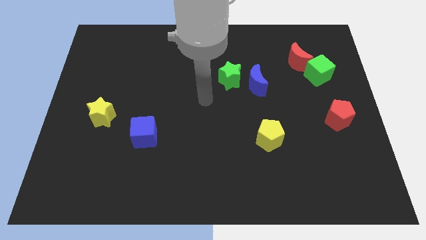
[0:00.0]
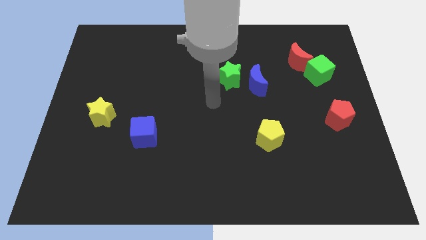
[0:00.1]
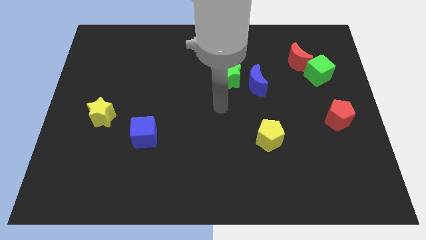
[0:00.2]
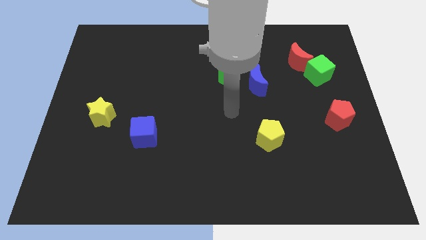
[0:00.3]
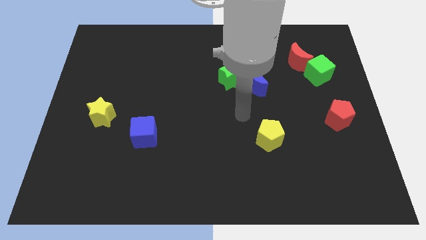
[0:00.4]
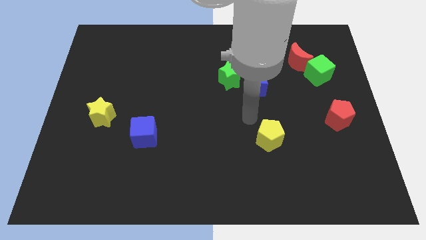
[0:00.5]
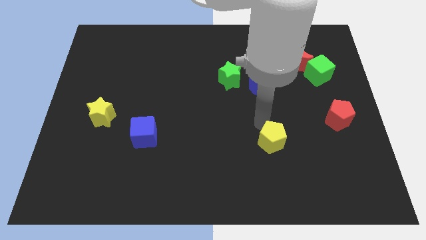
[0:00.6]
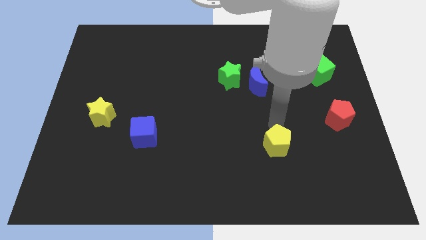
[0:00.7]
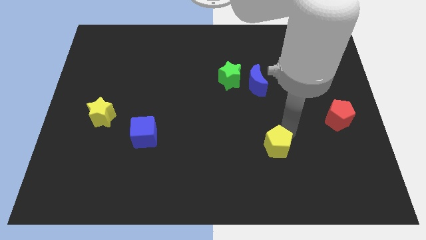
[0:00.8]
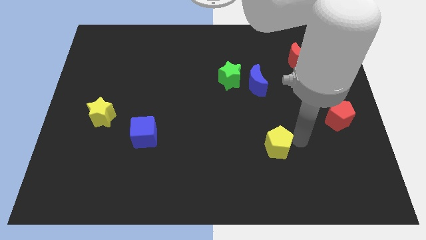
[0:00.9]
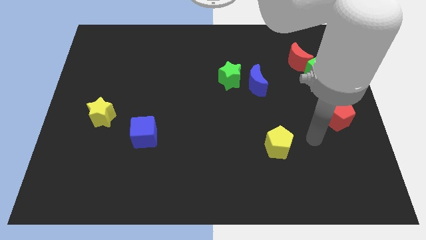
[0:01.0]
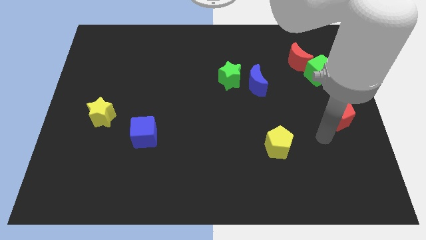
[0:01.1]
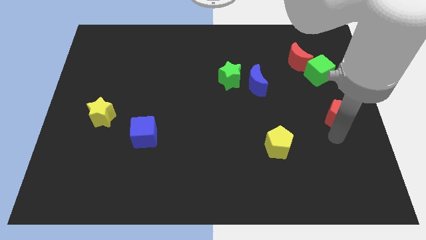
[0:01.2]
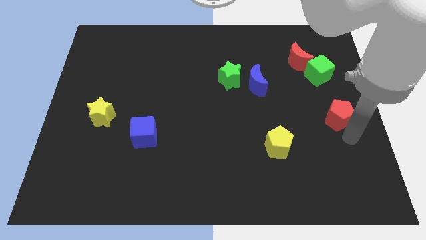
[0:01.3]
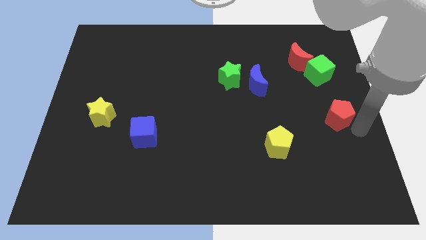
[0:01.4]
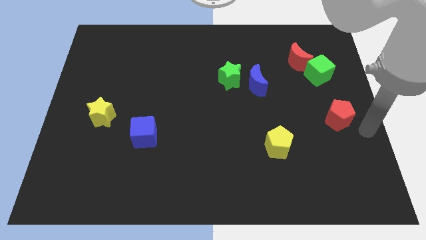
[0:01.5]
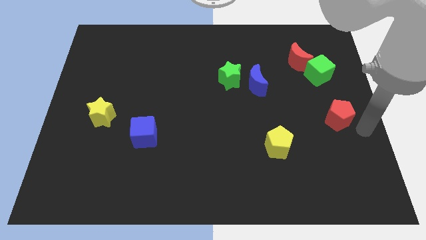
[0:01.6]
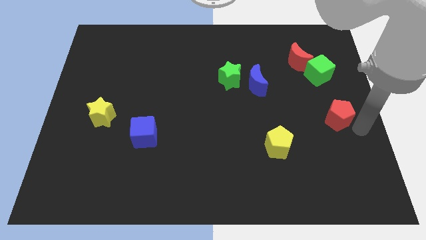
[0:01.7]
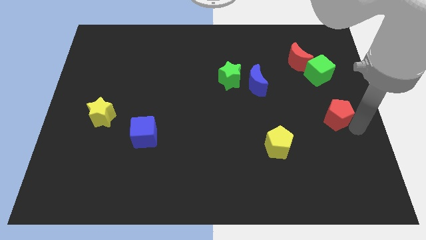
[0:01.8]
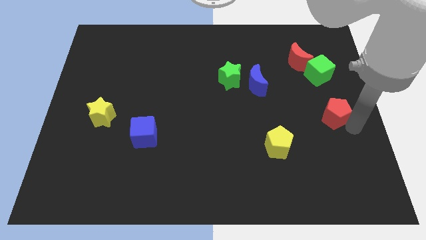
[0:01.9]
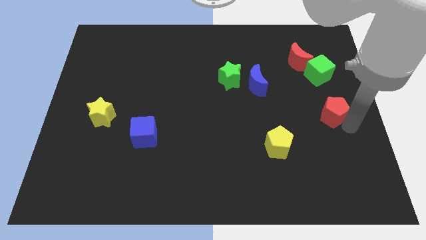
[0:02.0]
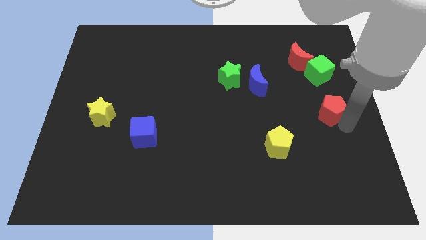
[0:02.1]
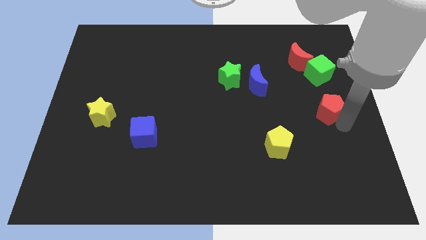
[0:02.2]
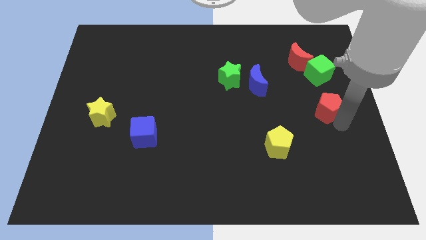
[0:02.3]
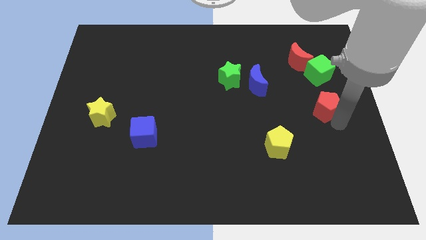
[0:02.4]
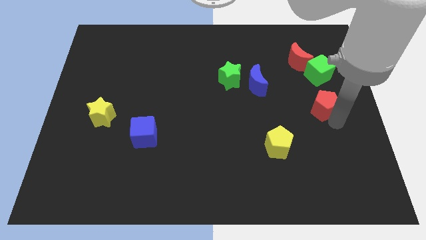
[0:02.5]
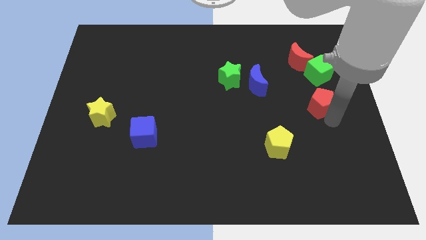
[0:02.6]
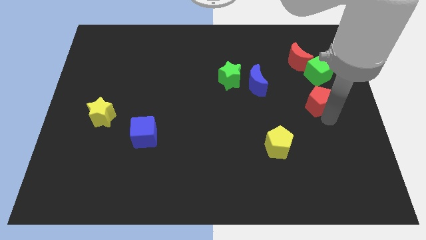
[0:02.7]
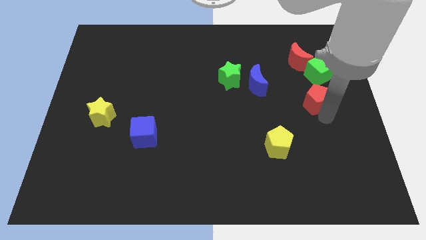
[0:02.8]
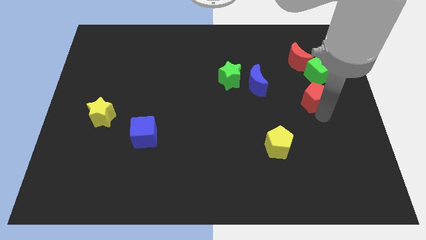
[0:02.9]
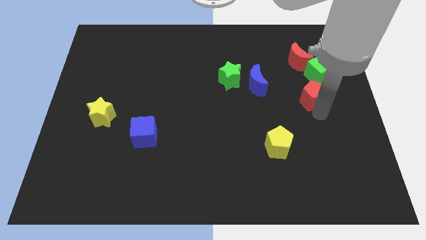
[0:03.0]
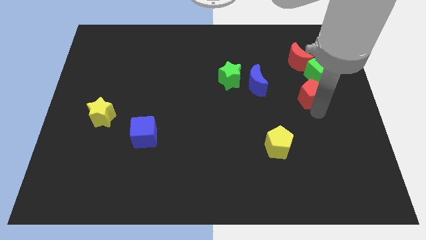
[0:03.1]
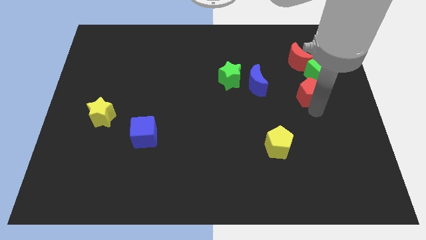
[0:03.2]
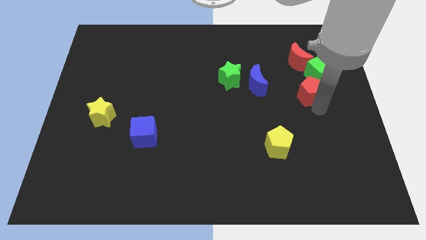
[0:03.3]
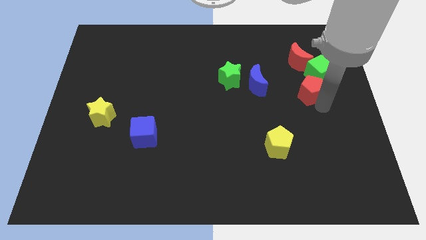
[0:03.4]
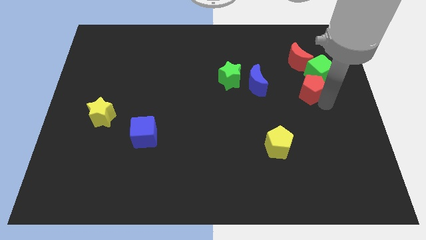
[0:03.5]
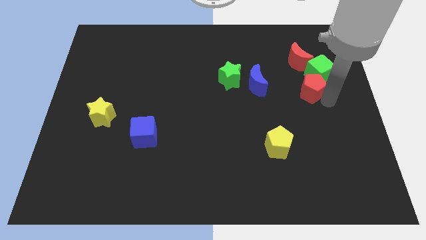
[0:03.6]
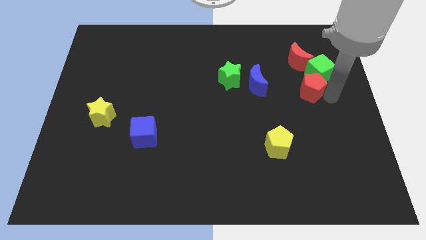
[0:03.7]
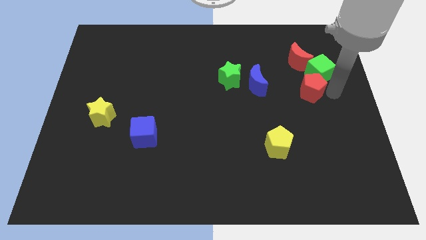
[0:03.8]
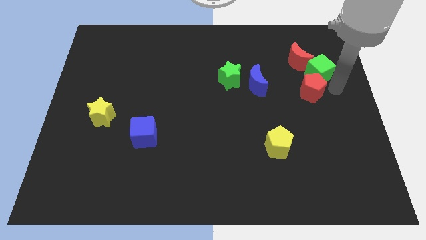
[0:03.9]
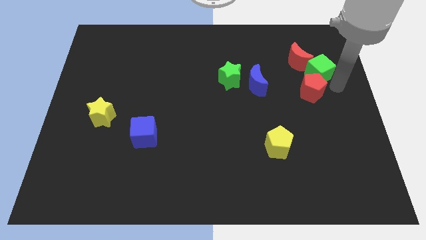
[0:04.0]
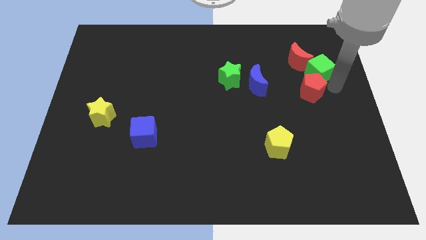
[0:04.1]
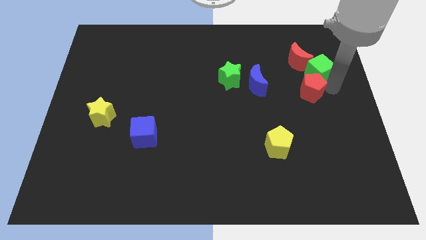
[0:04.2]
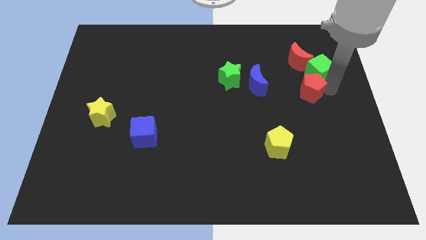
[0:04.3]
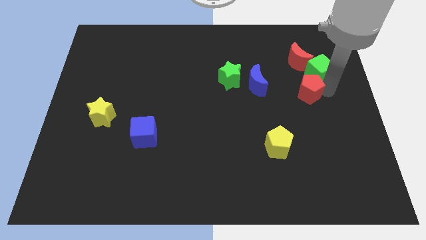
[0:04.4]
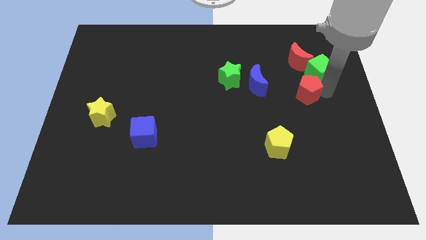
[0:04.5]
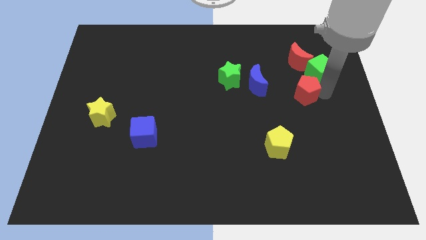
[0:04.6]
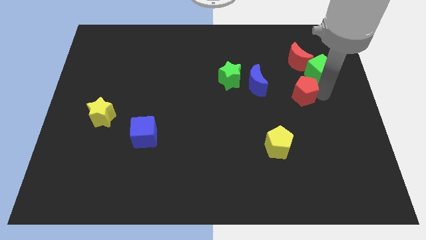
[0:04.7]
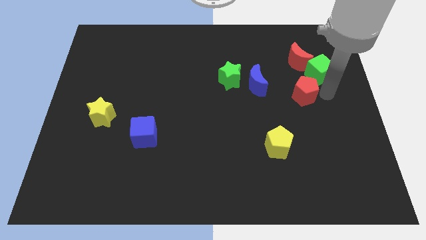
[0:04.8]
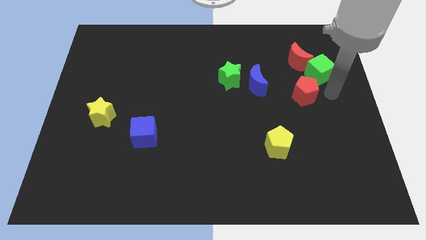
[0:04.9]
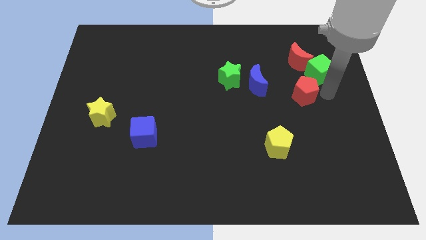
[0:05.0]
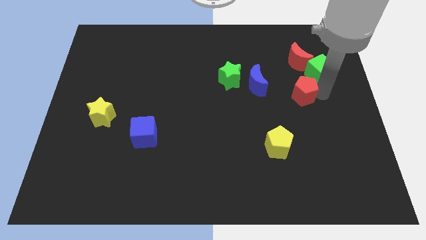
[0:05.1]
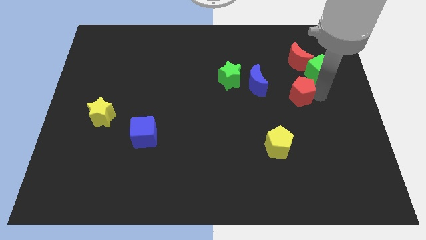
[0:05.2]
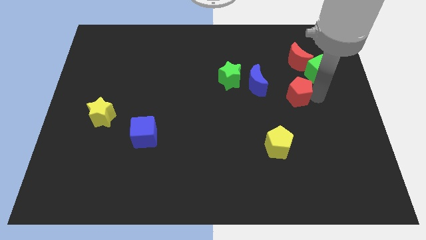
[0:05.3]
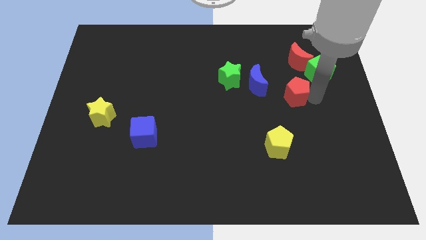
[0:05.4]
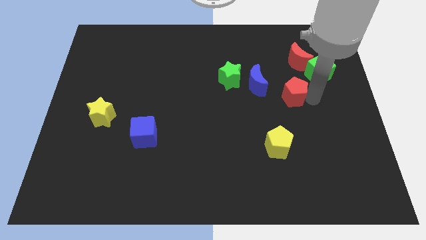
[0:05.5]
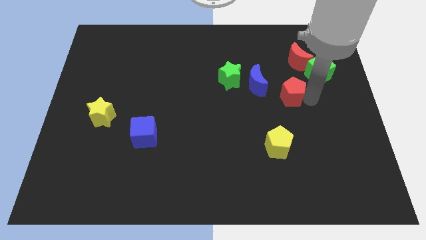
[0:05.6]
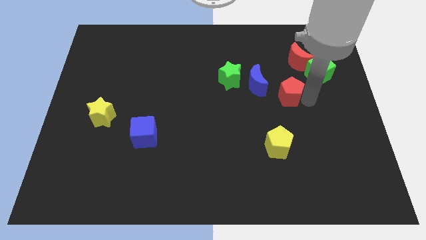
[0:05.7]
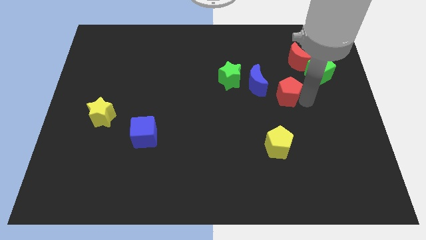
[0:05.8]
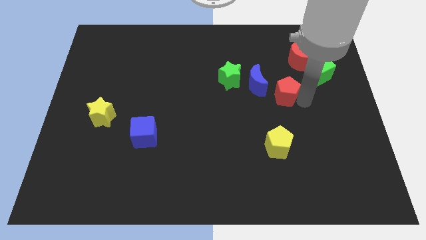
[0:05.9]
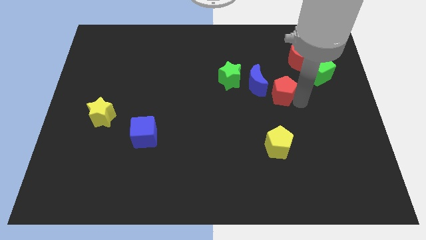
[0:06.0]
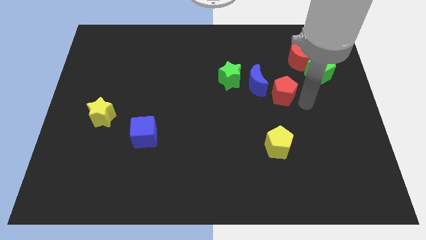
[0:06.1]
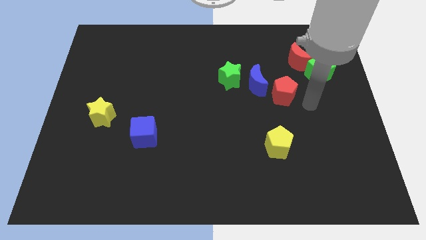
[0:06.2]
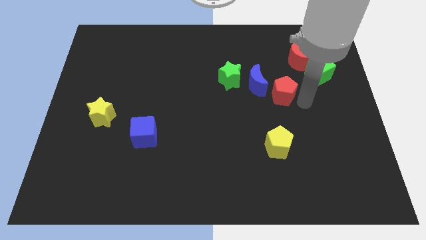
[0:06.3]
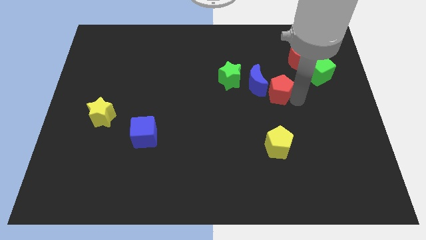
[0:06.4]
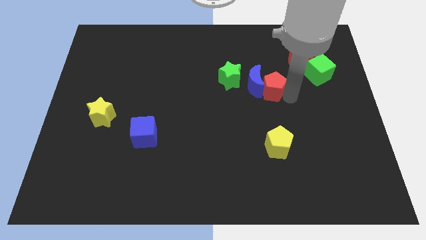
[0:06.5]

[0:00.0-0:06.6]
slide the red pentagon close to the blue moon

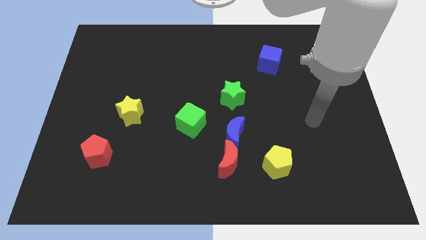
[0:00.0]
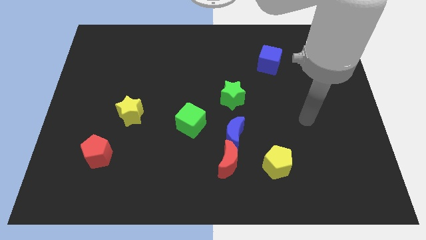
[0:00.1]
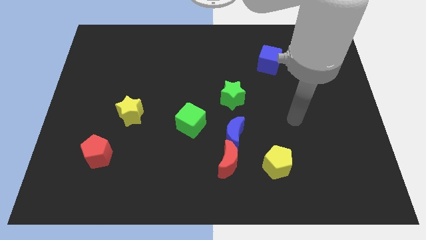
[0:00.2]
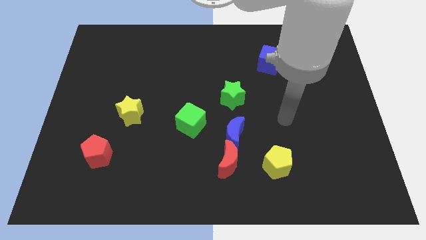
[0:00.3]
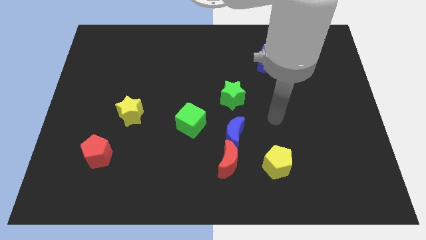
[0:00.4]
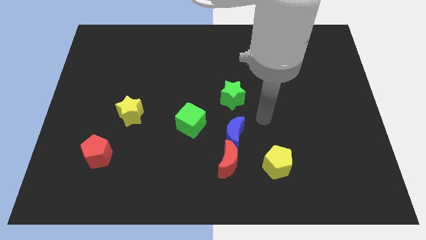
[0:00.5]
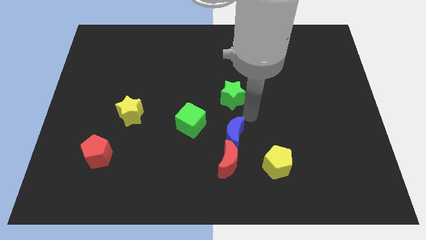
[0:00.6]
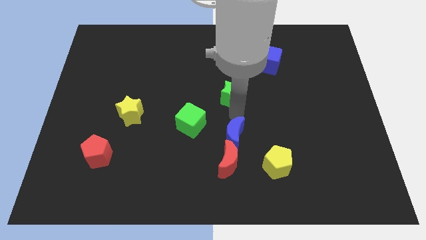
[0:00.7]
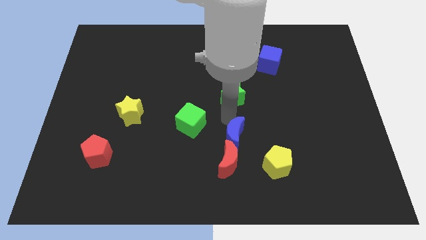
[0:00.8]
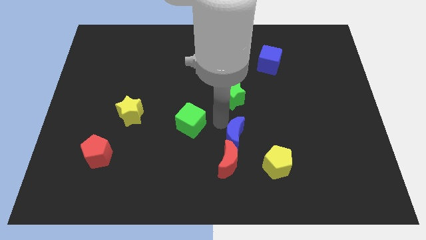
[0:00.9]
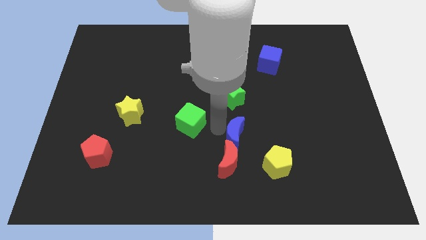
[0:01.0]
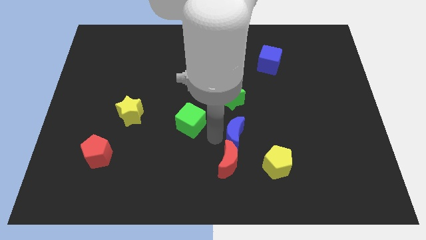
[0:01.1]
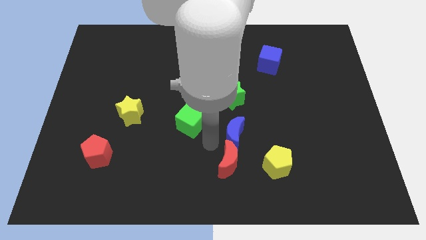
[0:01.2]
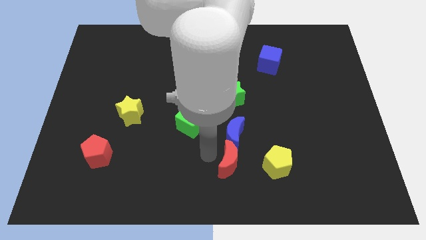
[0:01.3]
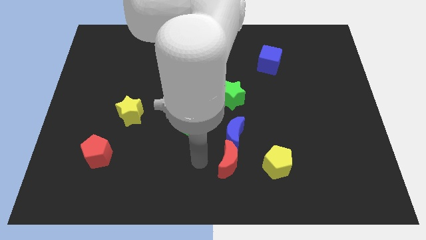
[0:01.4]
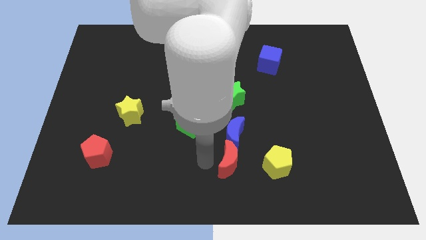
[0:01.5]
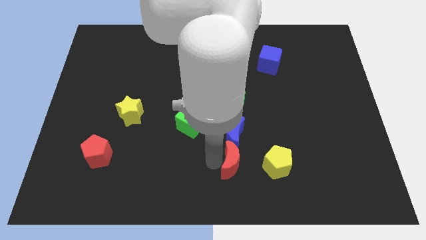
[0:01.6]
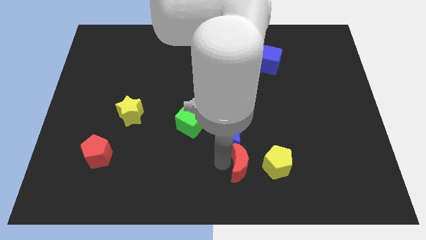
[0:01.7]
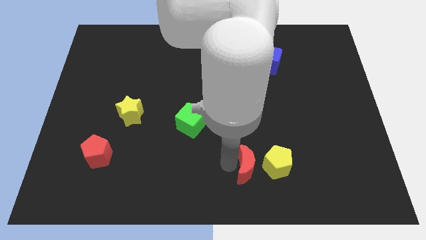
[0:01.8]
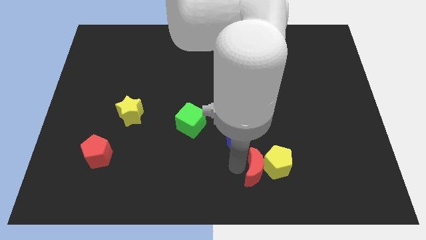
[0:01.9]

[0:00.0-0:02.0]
slide the red moon close to the yellow pentagon
